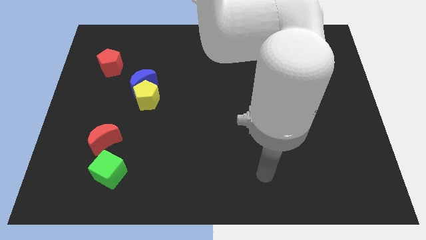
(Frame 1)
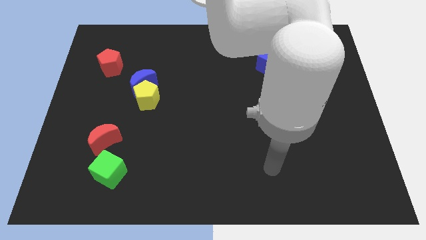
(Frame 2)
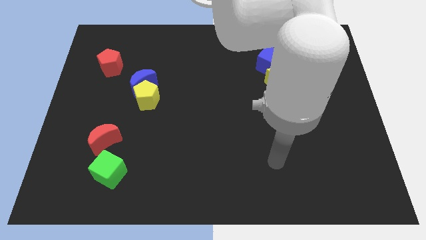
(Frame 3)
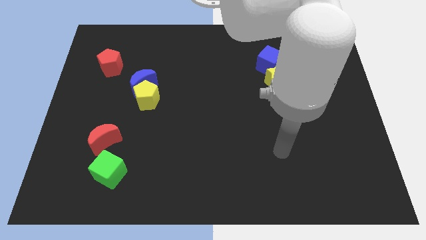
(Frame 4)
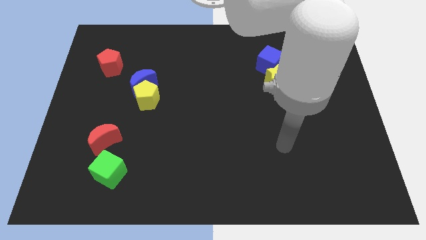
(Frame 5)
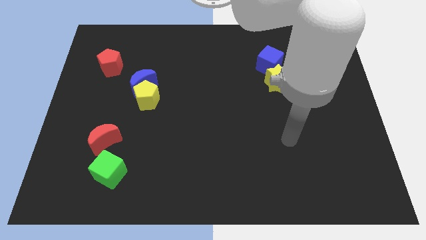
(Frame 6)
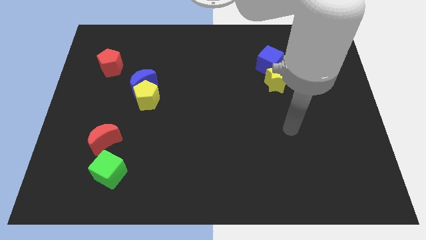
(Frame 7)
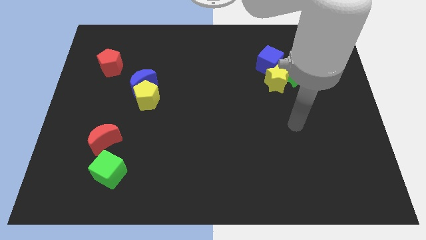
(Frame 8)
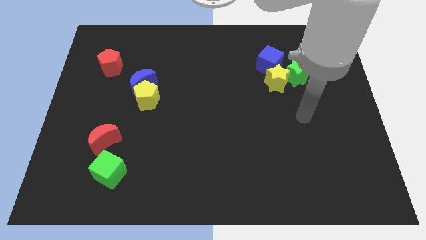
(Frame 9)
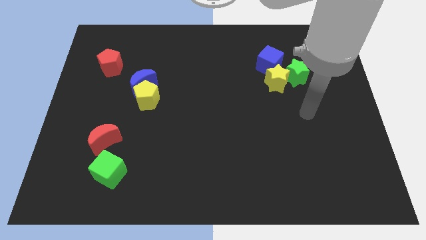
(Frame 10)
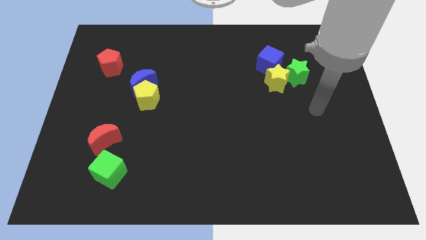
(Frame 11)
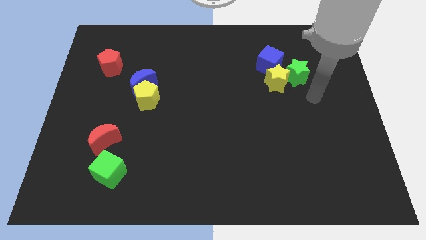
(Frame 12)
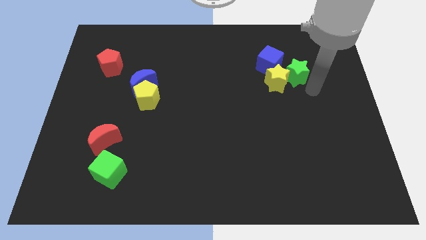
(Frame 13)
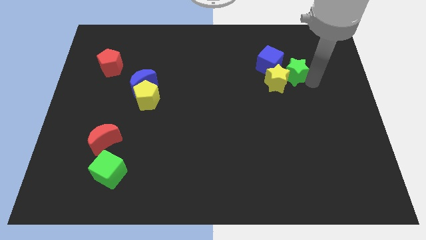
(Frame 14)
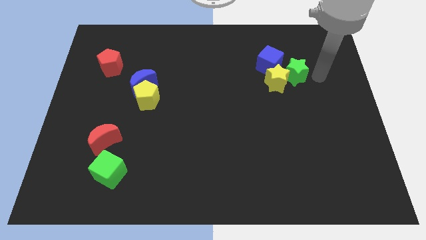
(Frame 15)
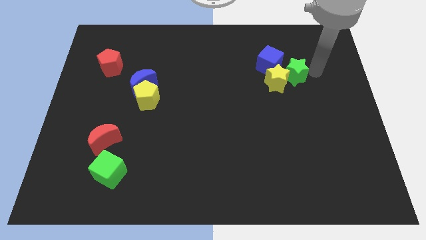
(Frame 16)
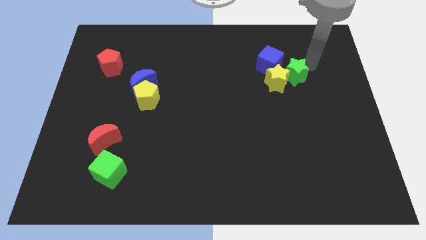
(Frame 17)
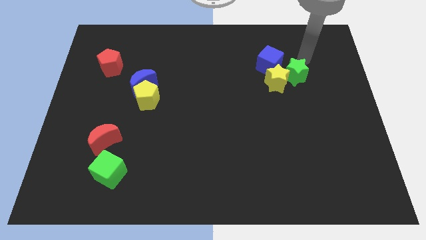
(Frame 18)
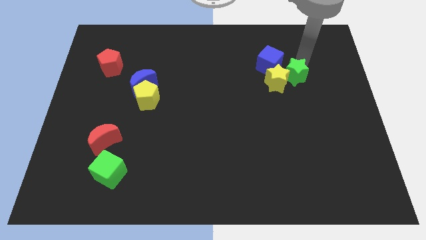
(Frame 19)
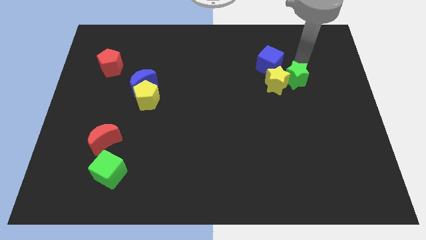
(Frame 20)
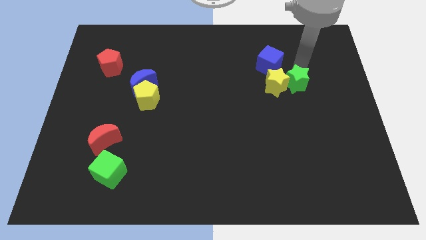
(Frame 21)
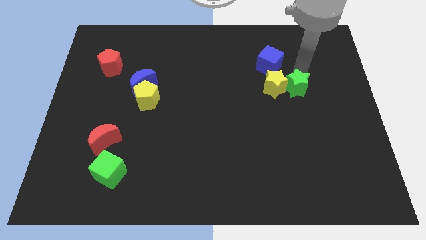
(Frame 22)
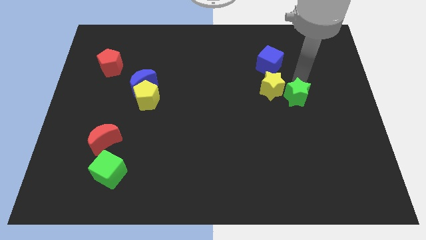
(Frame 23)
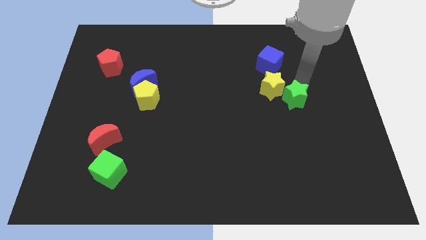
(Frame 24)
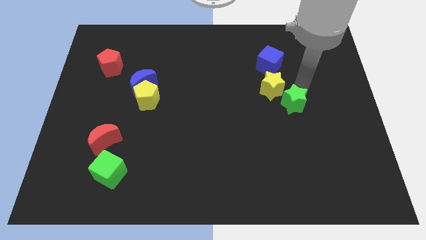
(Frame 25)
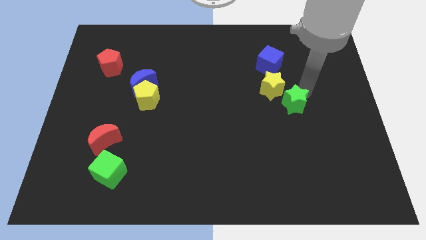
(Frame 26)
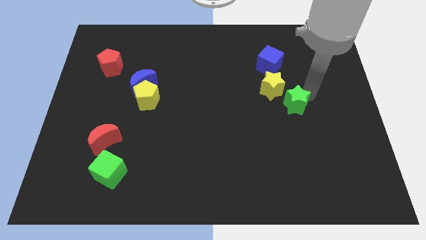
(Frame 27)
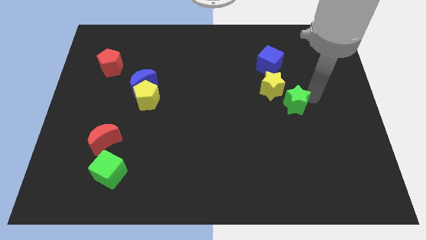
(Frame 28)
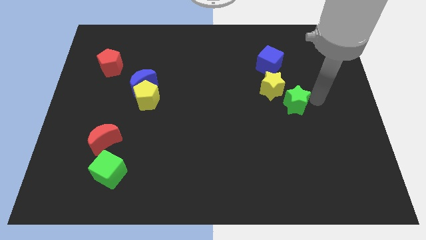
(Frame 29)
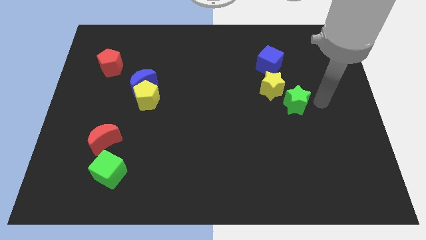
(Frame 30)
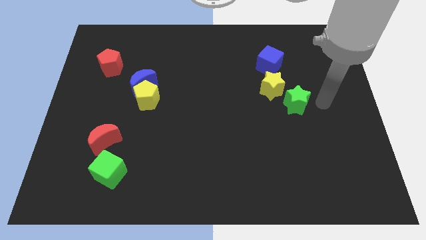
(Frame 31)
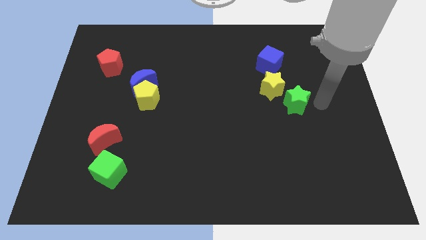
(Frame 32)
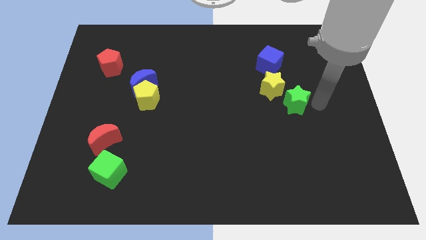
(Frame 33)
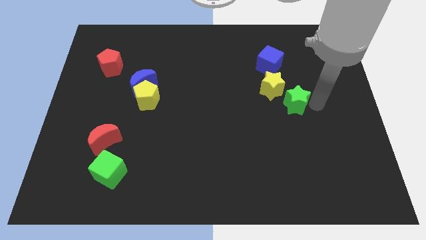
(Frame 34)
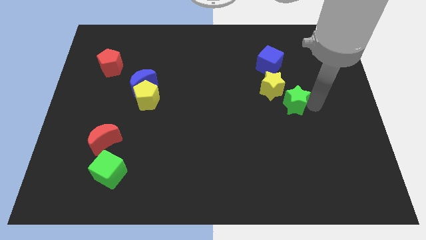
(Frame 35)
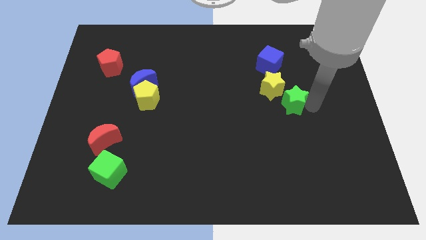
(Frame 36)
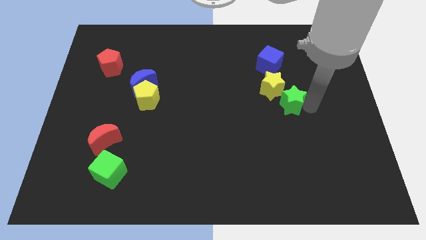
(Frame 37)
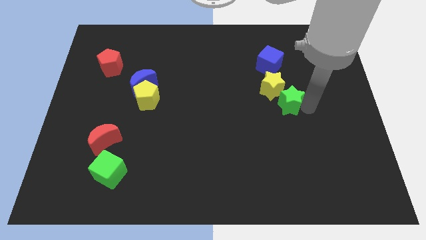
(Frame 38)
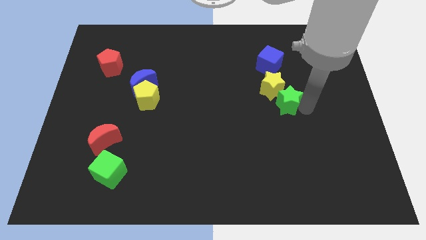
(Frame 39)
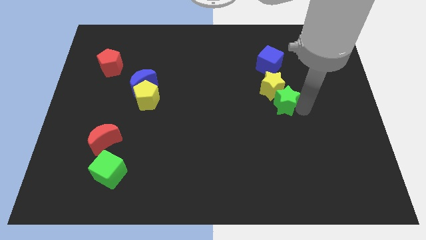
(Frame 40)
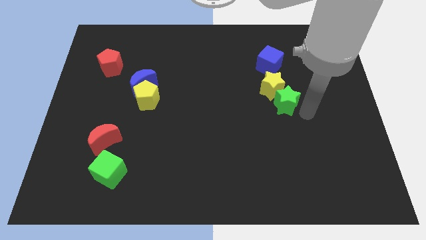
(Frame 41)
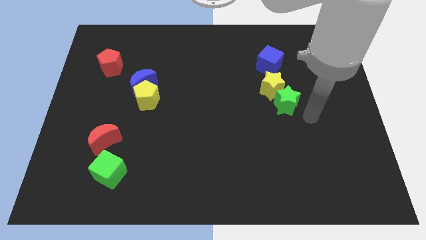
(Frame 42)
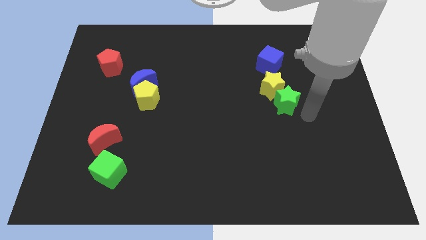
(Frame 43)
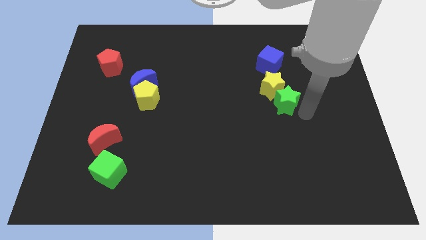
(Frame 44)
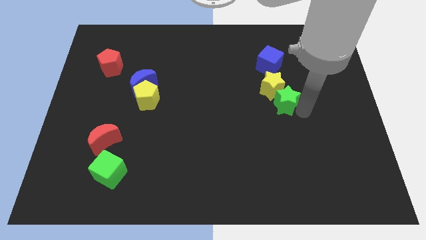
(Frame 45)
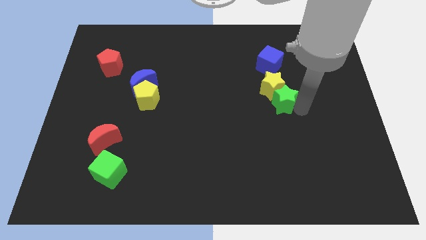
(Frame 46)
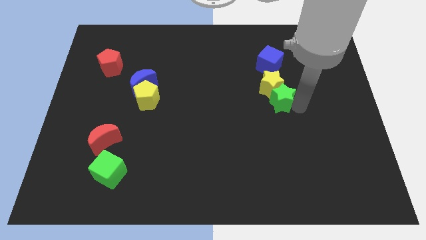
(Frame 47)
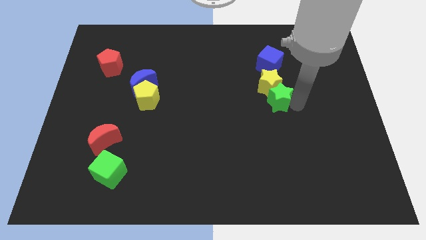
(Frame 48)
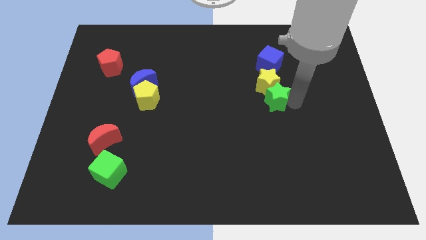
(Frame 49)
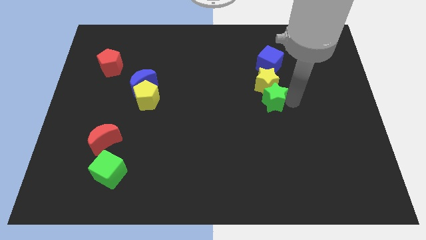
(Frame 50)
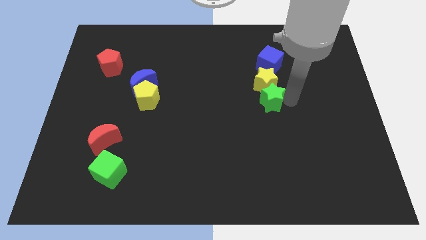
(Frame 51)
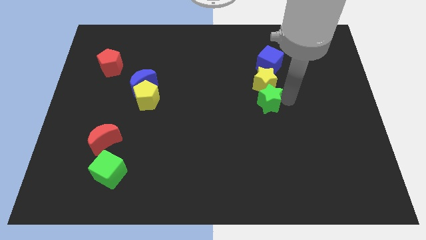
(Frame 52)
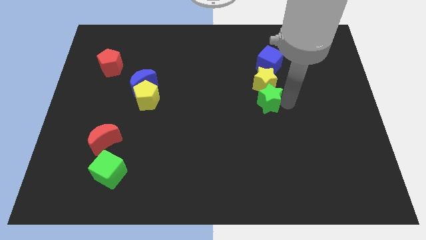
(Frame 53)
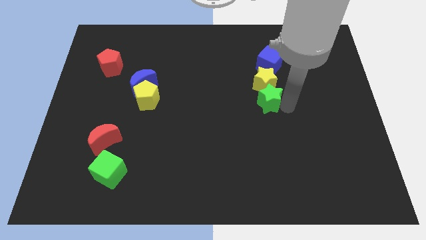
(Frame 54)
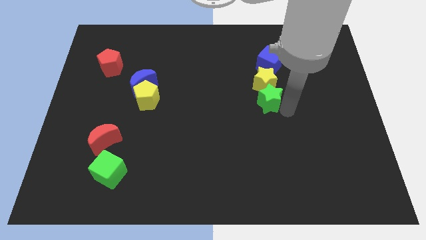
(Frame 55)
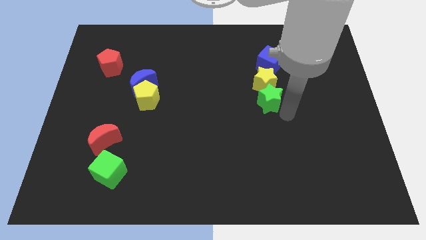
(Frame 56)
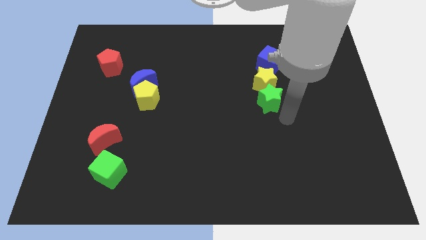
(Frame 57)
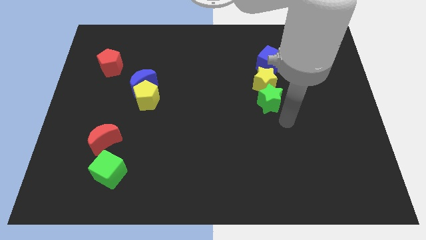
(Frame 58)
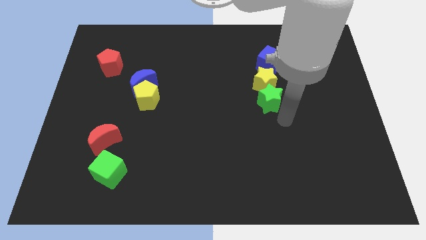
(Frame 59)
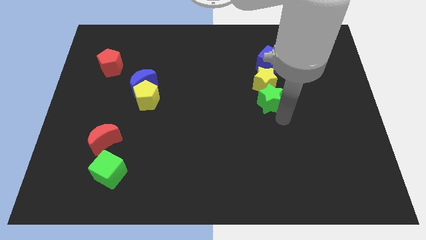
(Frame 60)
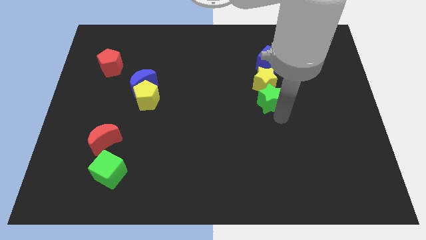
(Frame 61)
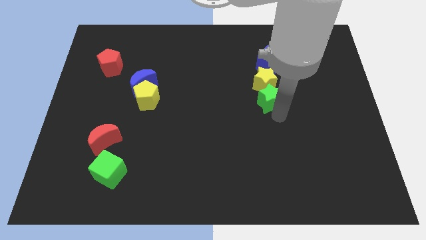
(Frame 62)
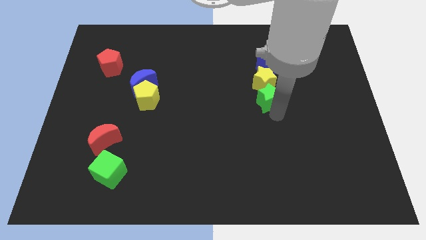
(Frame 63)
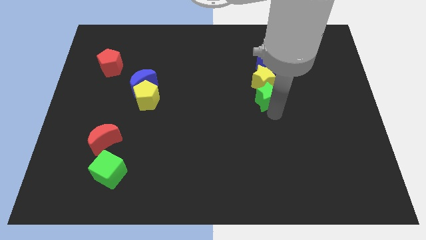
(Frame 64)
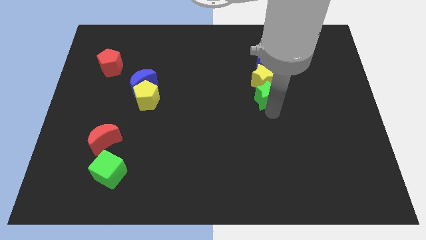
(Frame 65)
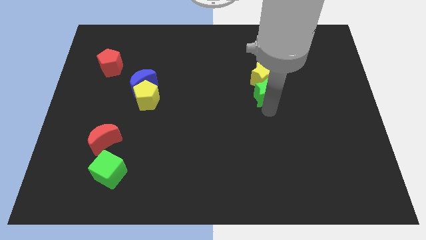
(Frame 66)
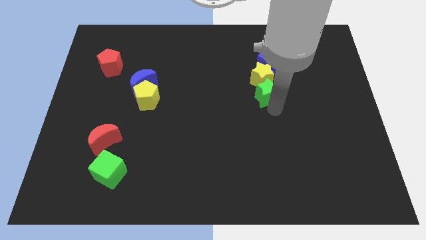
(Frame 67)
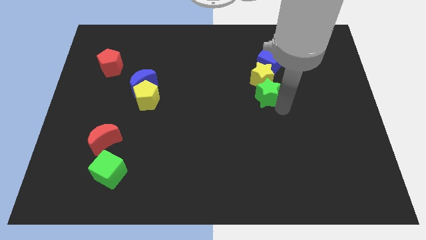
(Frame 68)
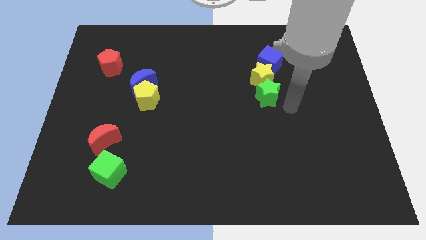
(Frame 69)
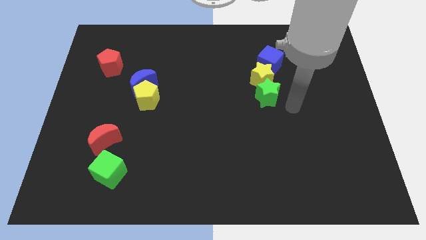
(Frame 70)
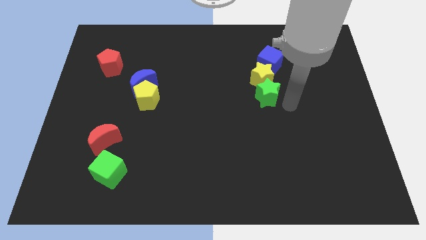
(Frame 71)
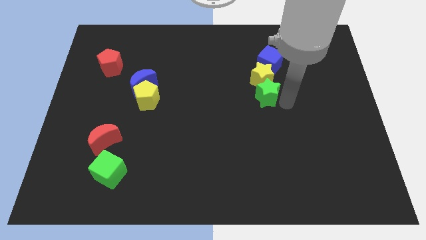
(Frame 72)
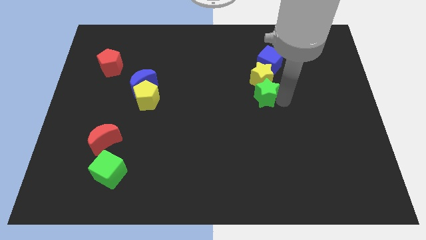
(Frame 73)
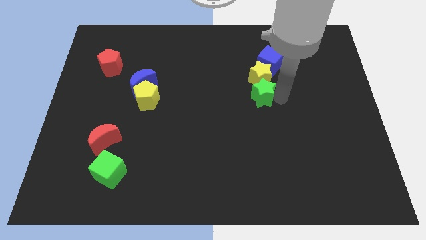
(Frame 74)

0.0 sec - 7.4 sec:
move the green star slightly left

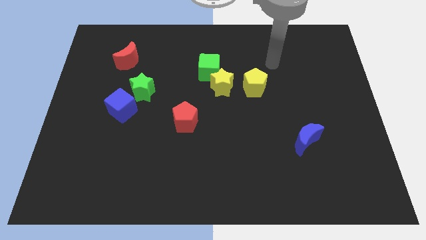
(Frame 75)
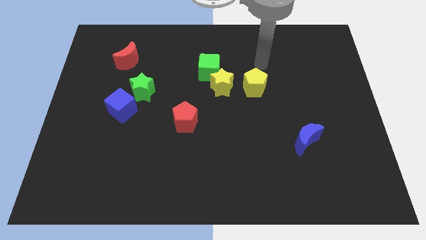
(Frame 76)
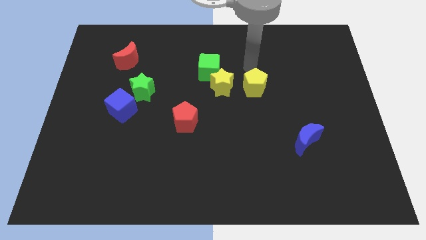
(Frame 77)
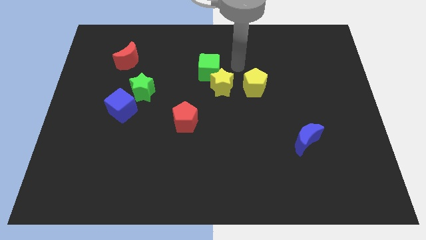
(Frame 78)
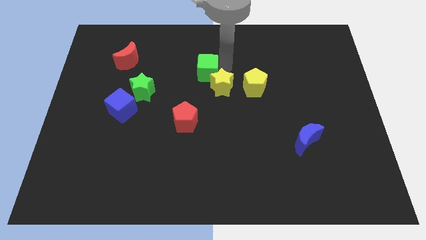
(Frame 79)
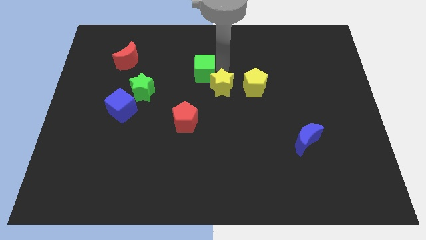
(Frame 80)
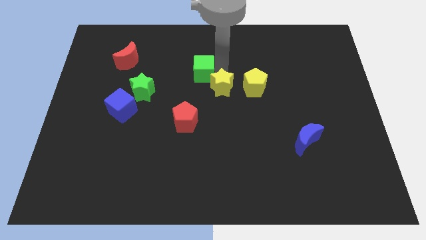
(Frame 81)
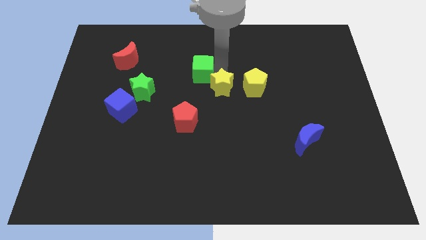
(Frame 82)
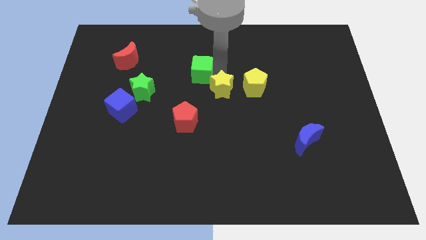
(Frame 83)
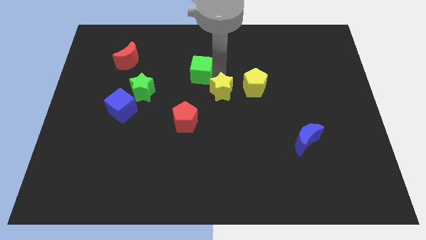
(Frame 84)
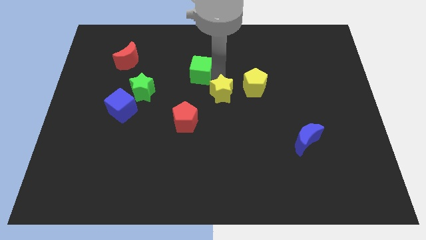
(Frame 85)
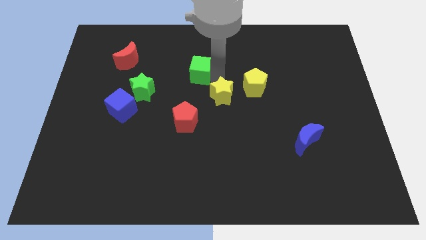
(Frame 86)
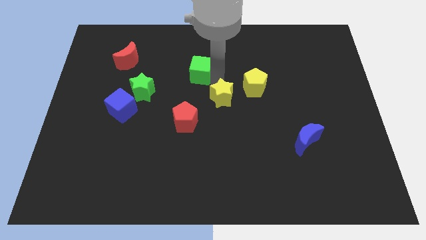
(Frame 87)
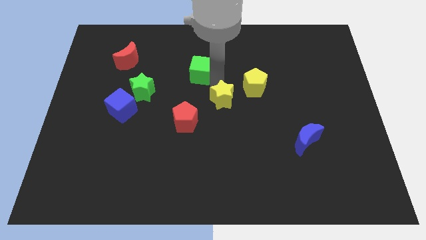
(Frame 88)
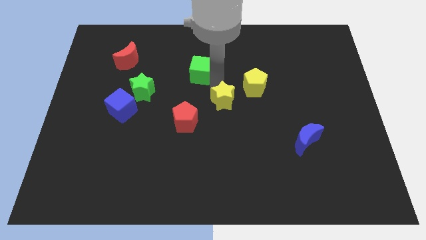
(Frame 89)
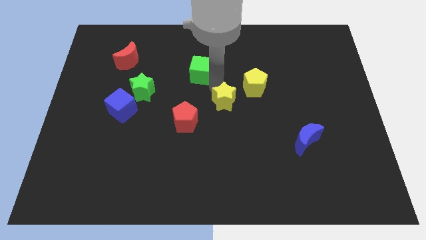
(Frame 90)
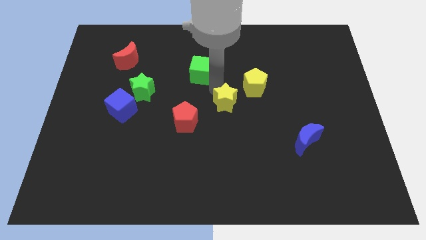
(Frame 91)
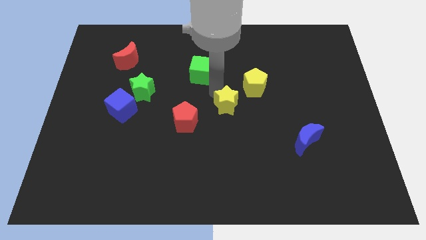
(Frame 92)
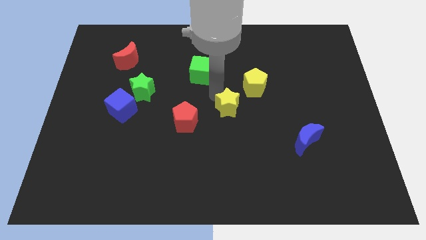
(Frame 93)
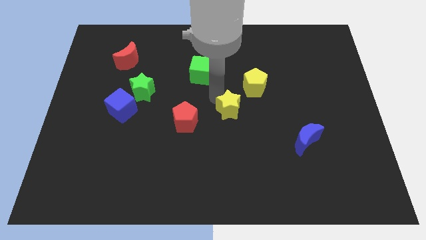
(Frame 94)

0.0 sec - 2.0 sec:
move the yellow star a little bit downwards
